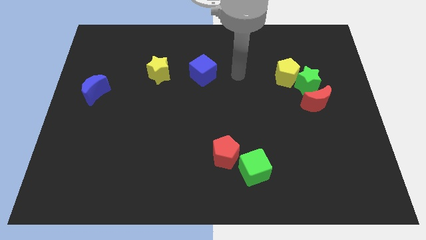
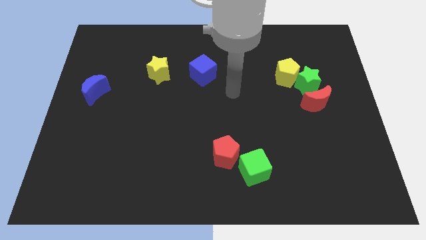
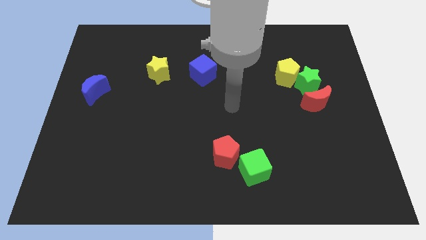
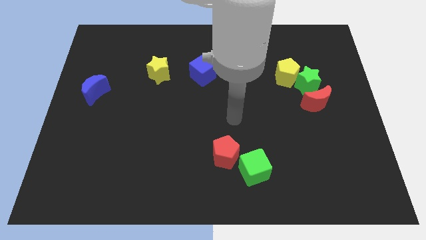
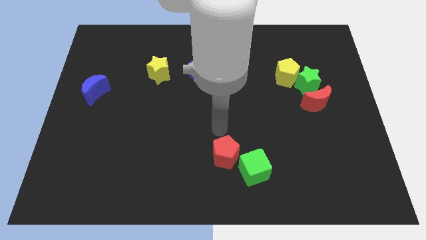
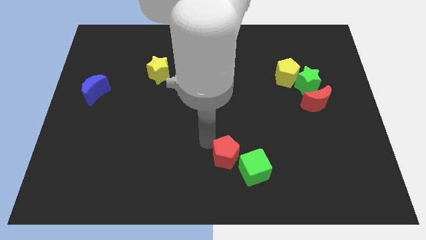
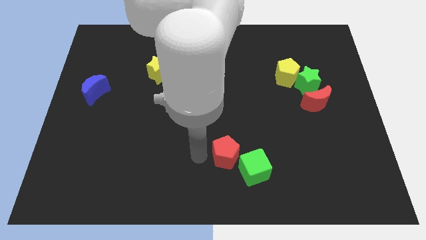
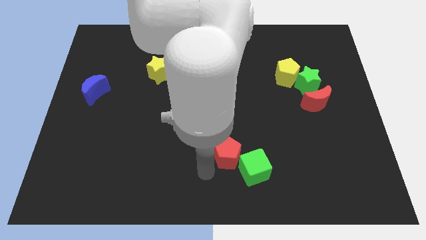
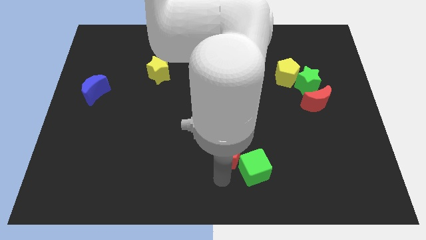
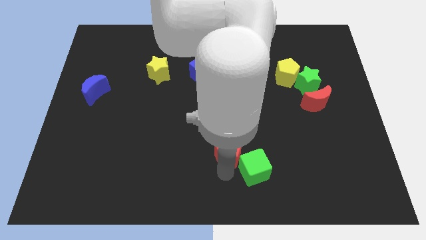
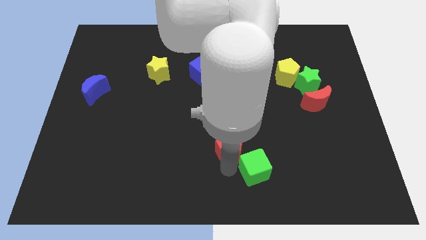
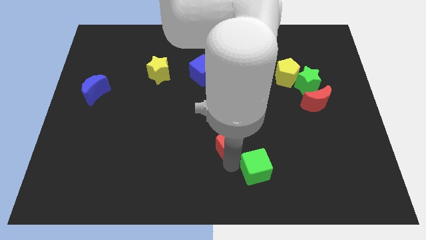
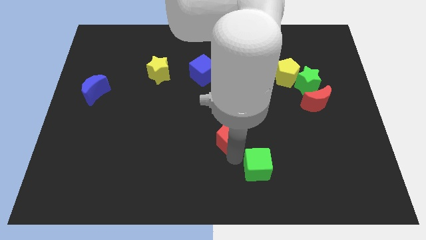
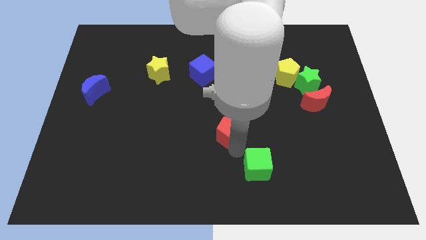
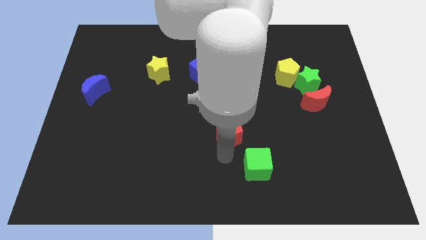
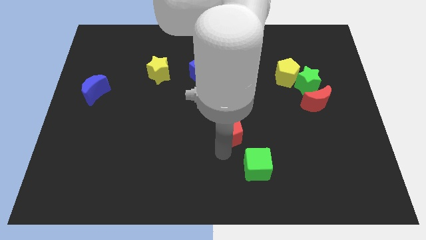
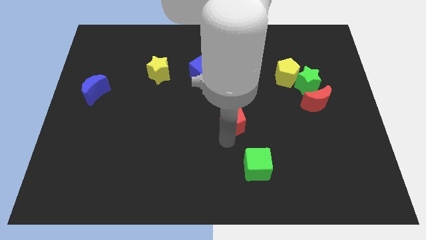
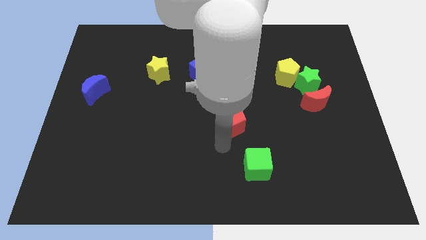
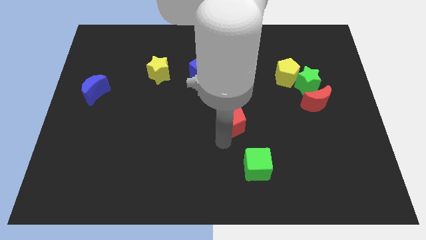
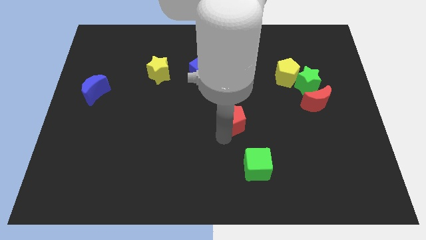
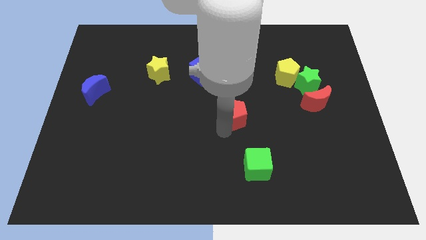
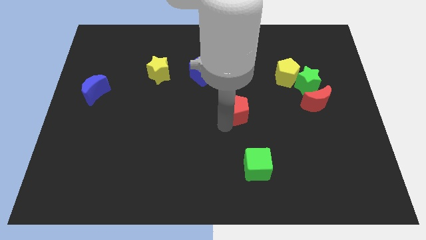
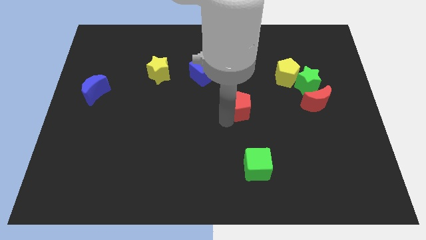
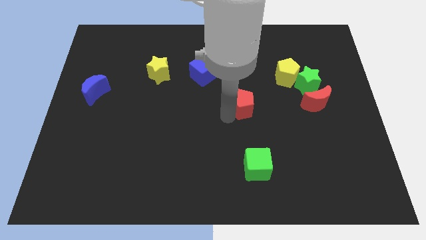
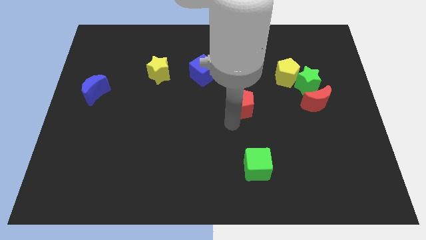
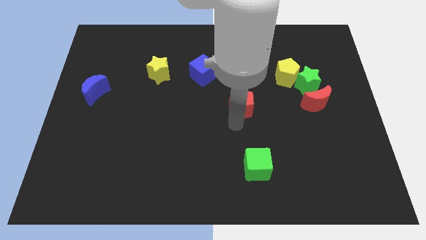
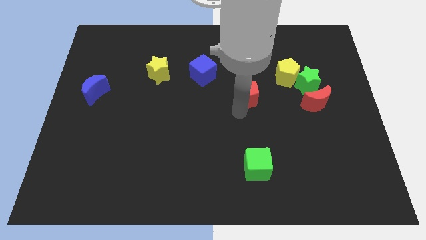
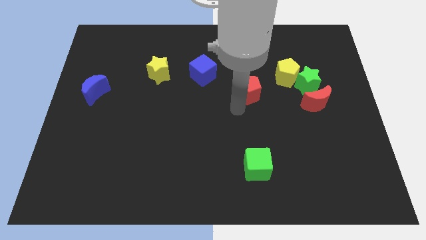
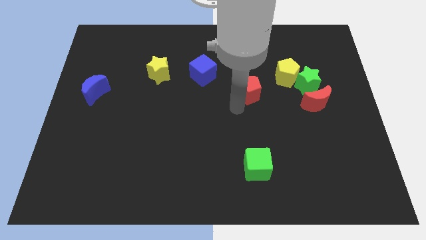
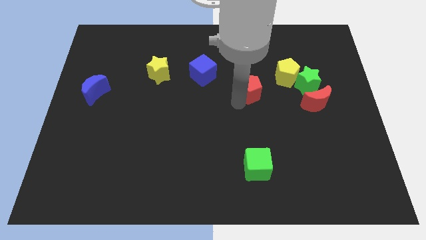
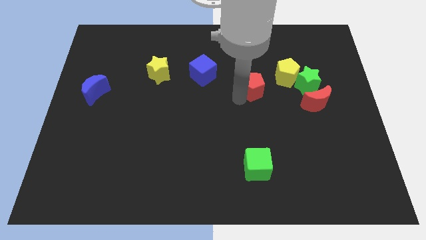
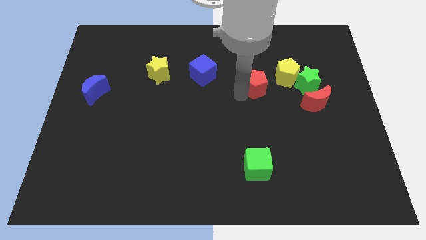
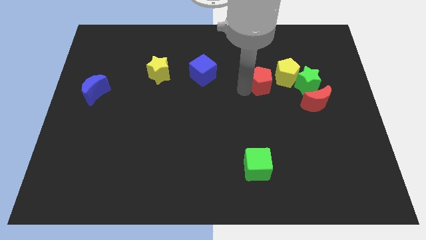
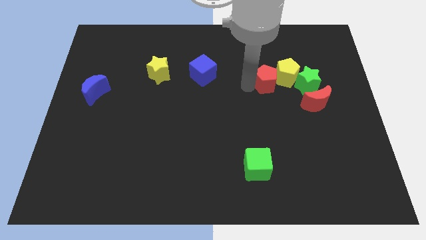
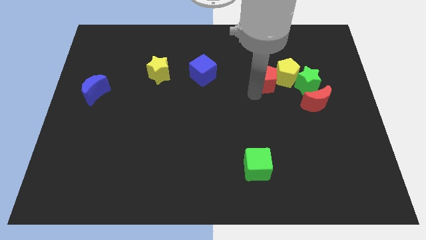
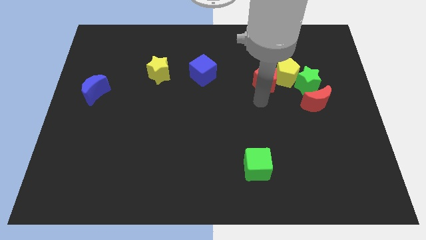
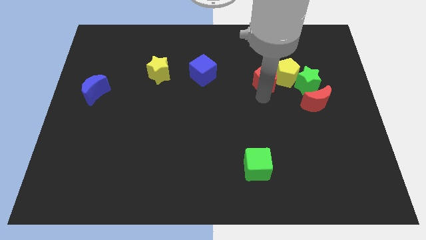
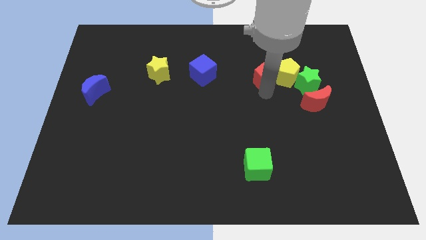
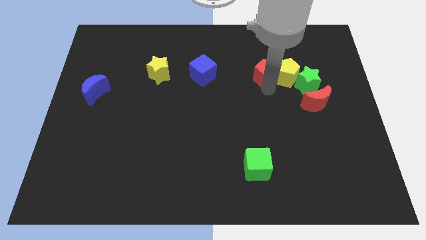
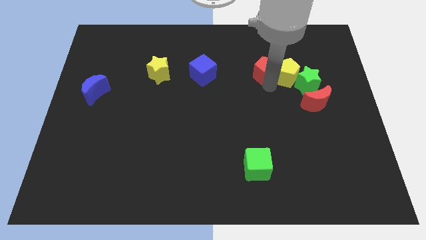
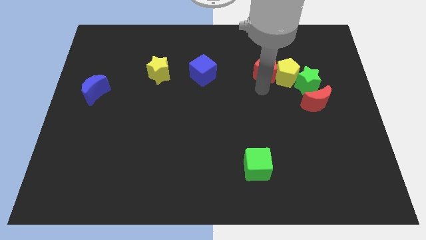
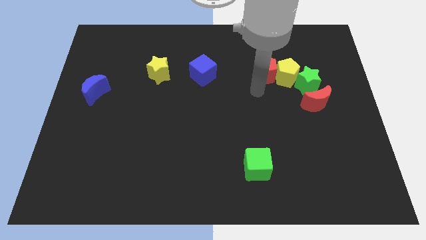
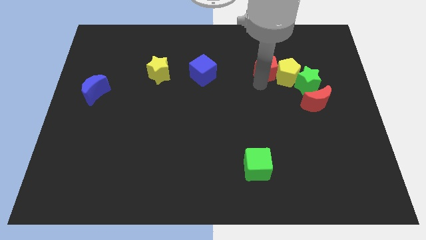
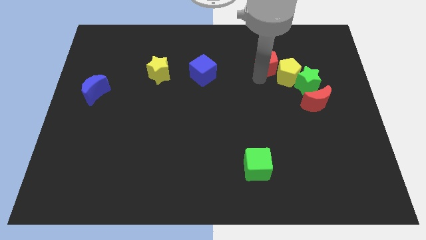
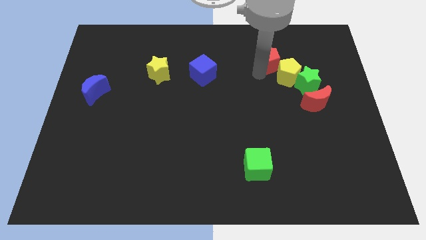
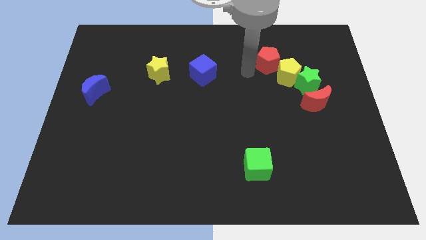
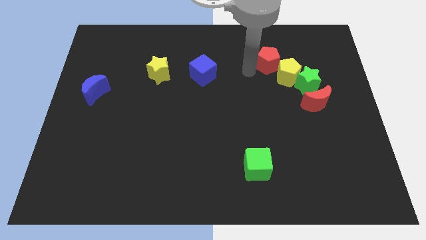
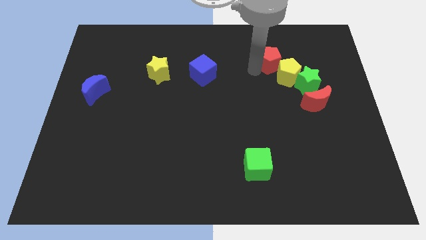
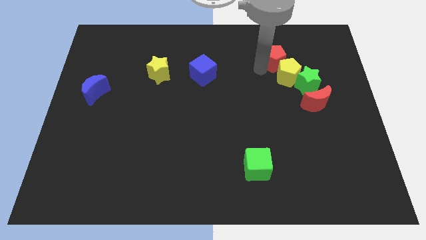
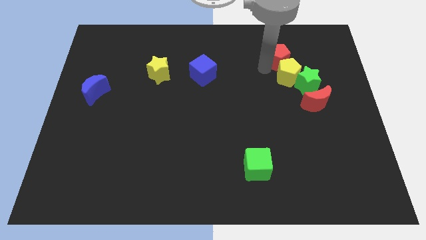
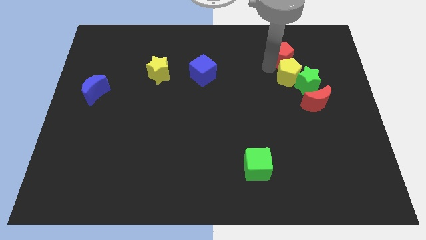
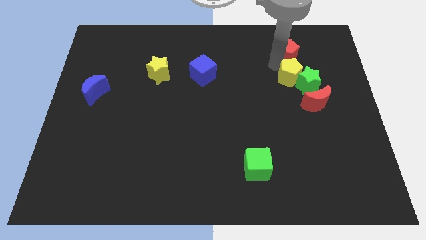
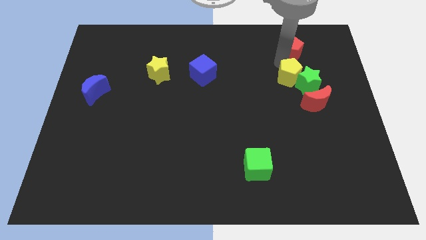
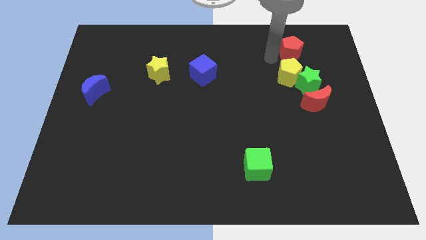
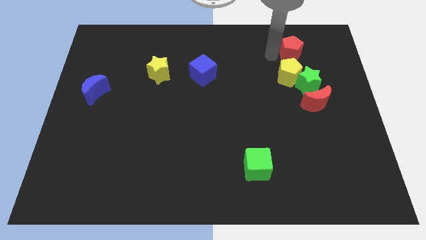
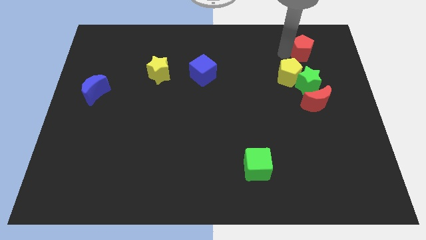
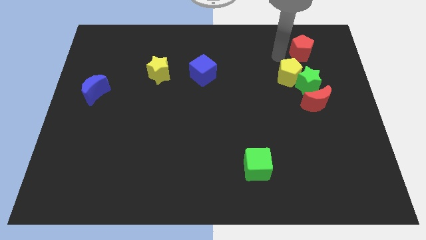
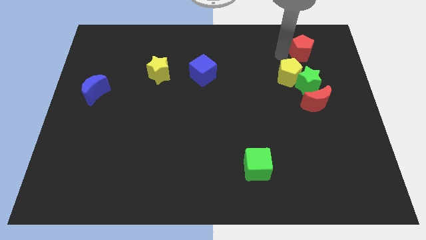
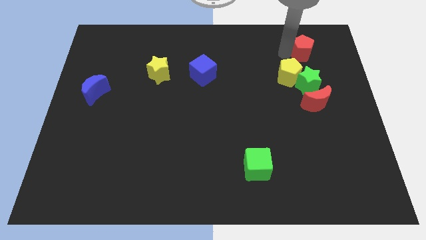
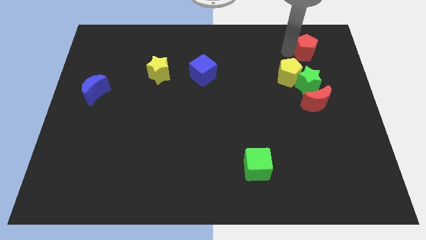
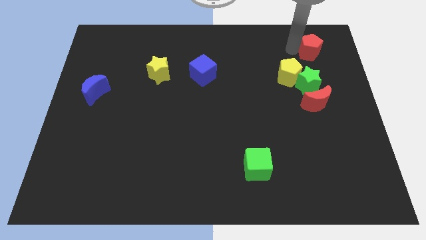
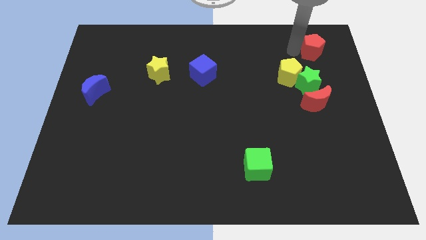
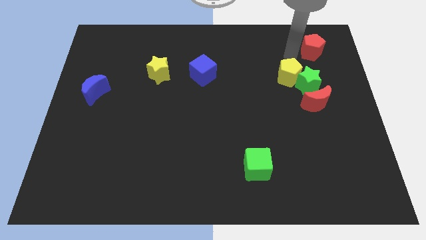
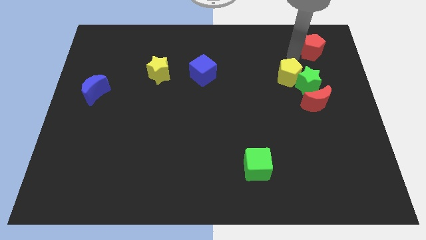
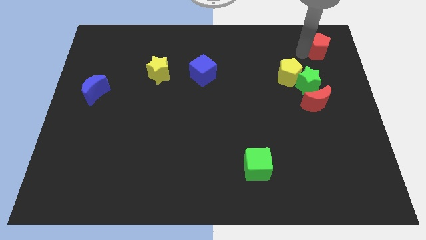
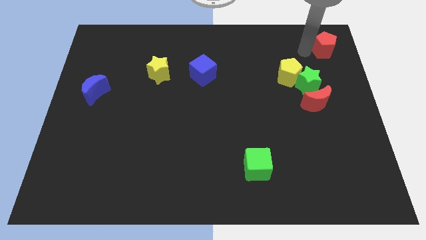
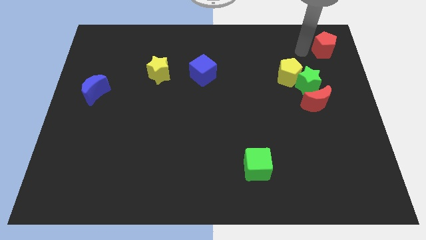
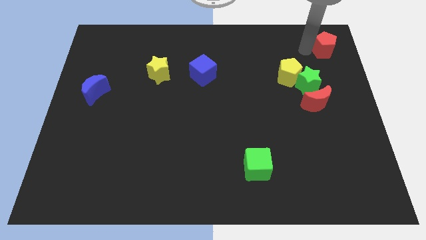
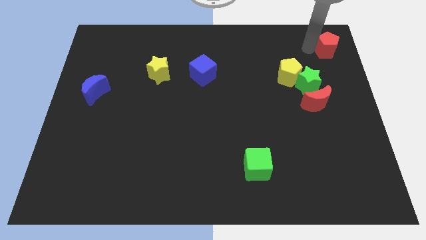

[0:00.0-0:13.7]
slide the red pentagon to the top right corner
